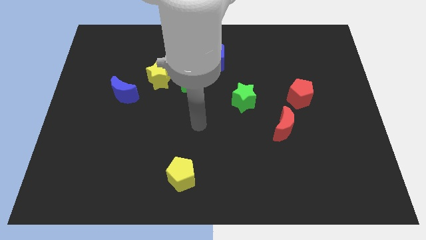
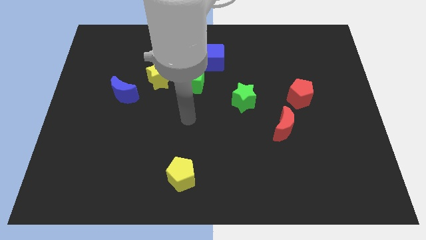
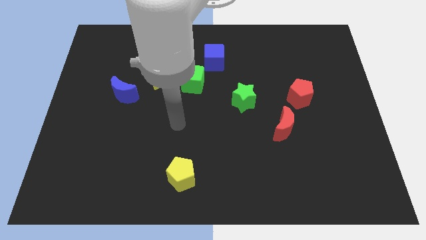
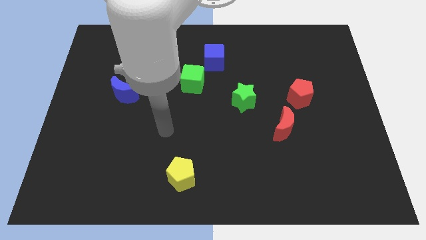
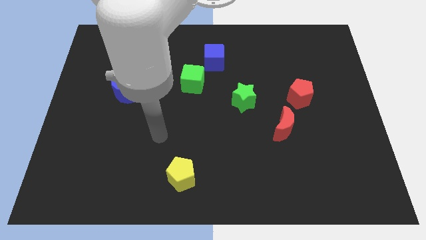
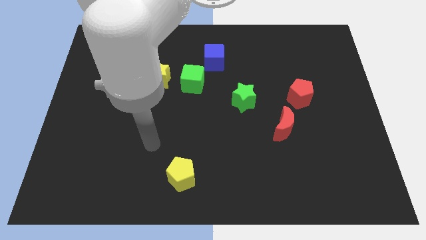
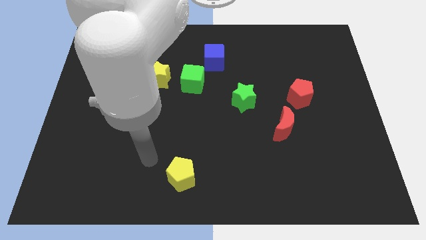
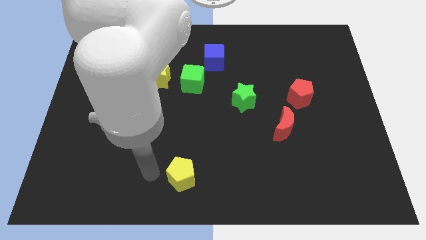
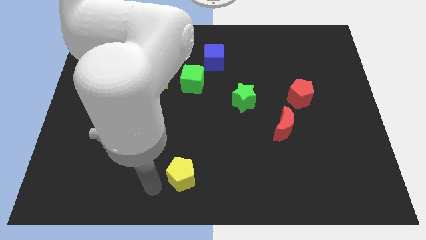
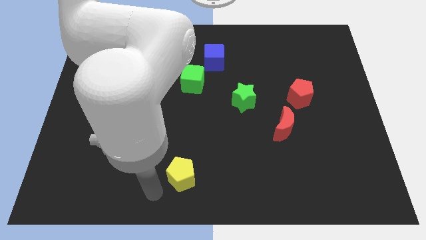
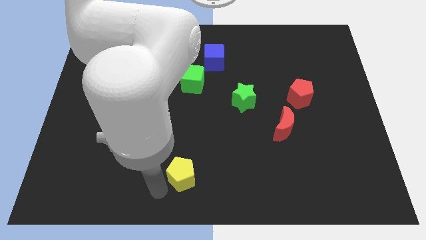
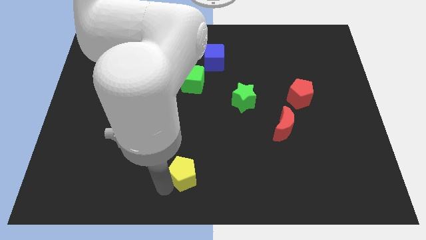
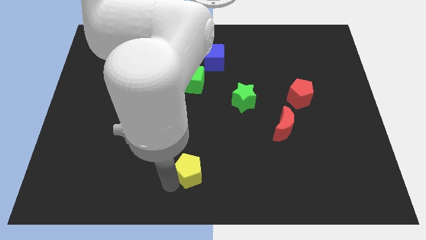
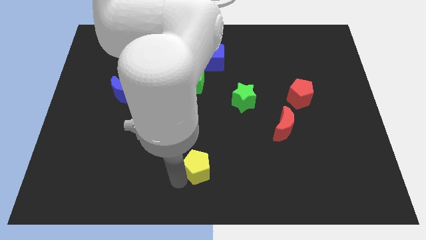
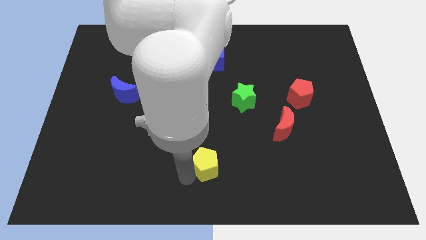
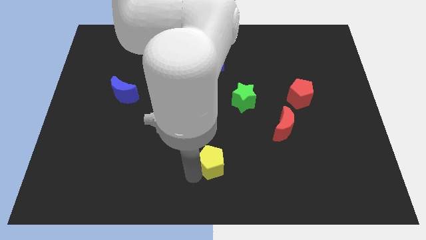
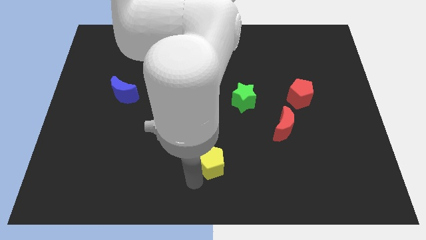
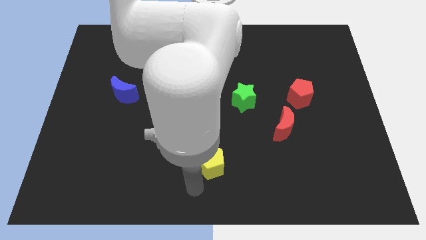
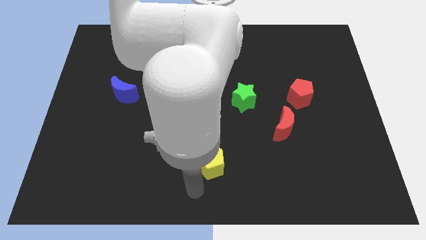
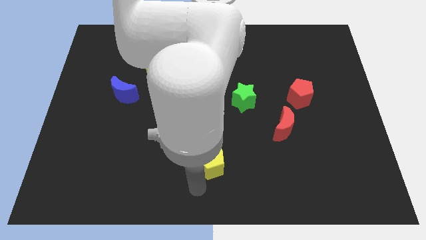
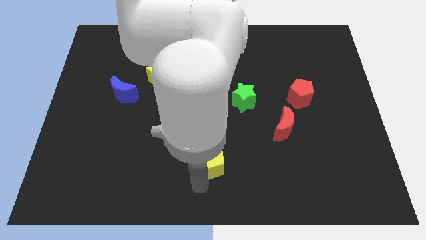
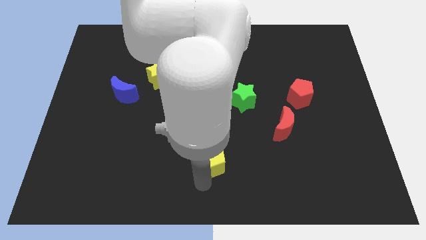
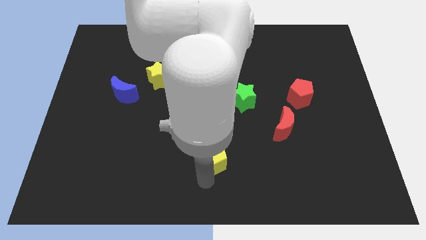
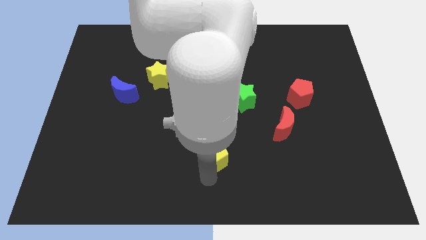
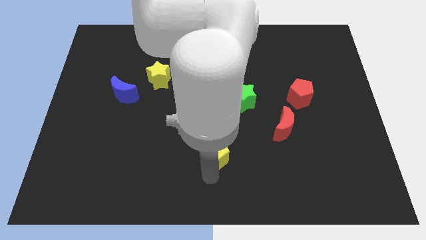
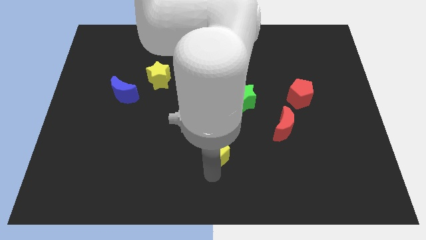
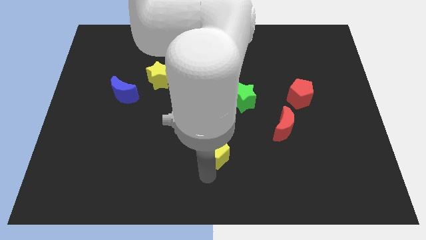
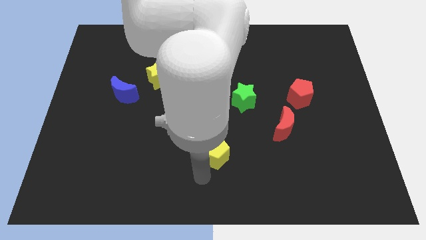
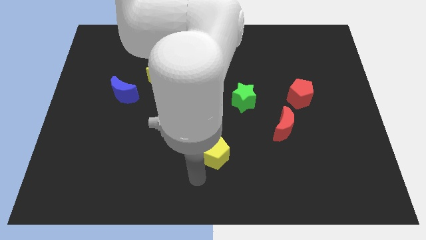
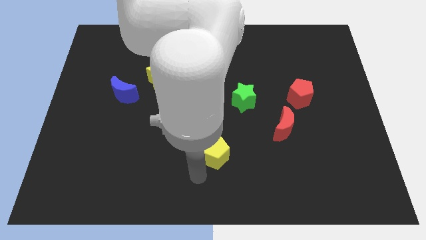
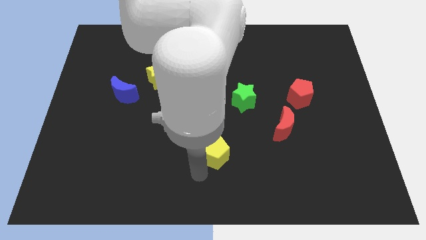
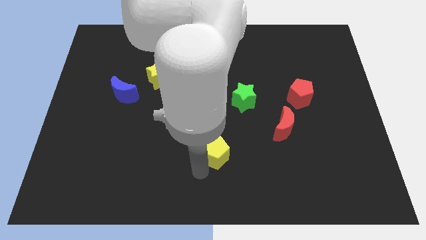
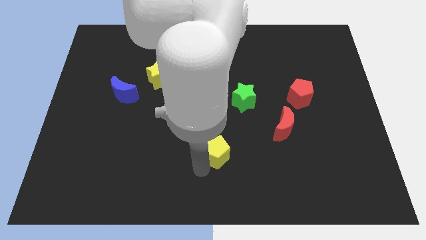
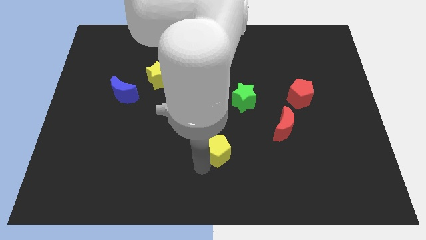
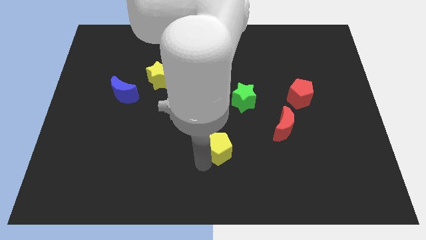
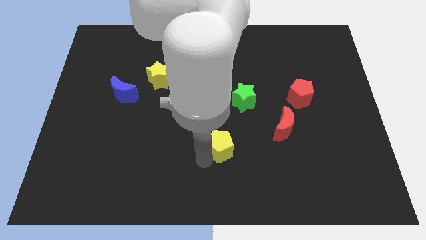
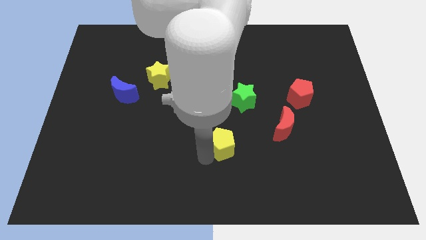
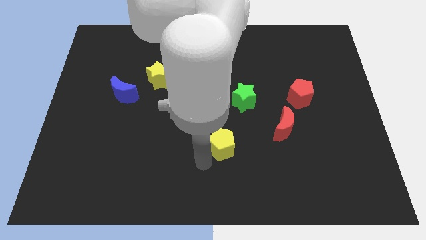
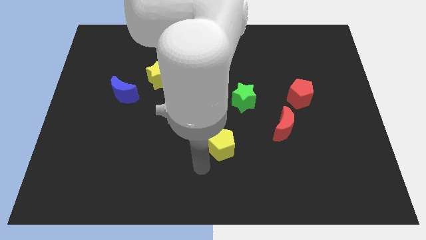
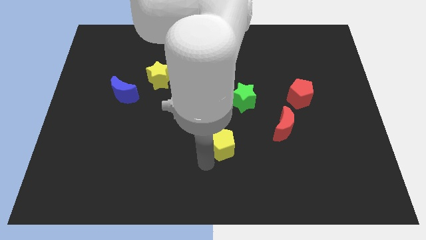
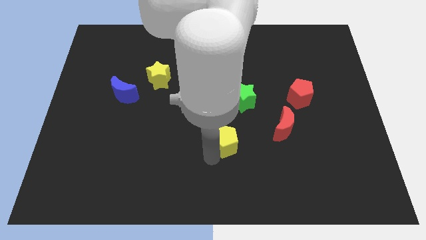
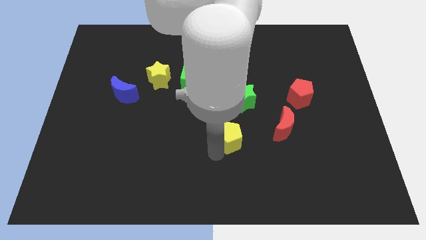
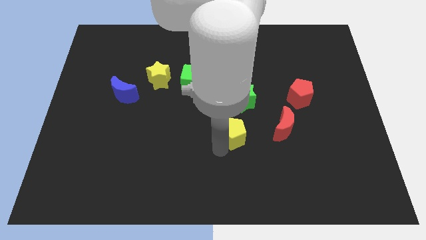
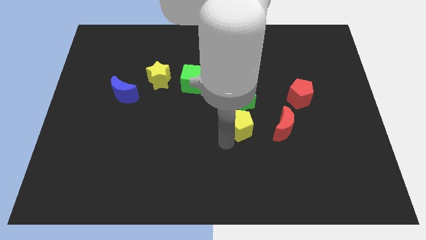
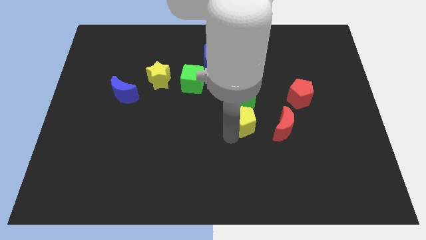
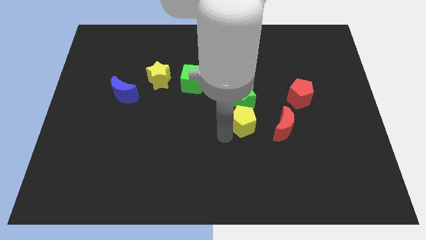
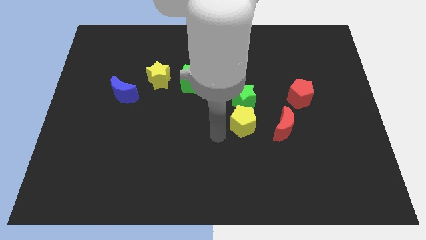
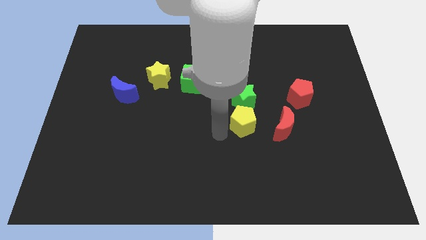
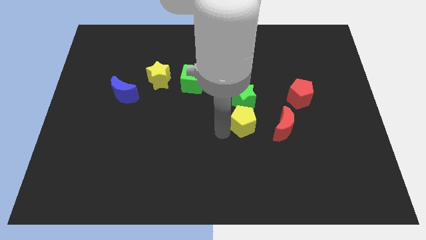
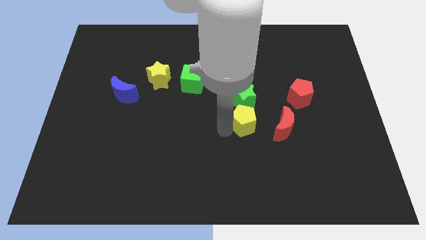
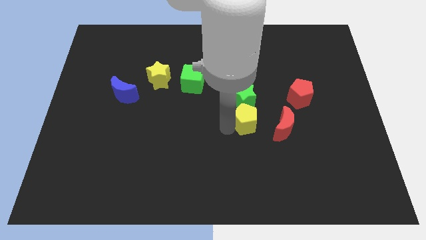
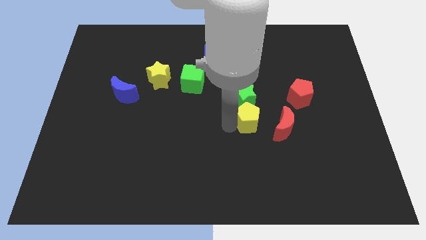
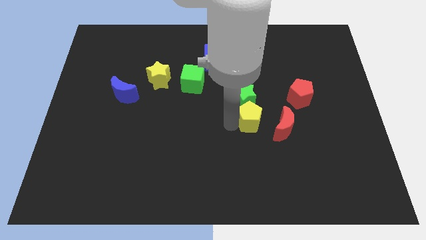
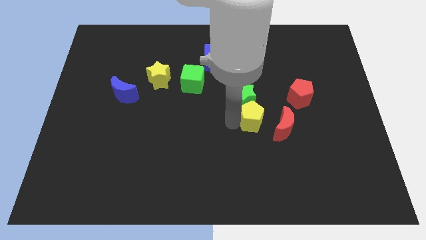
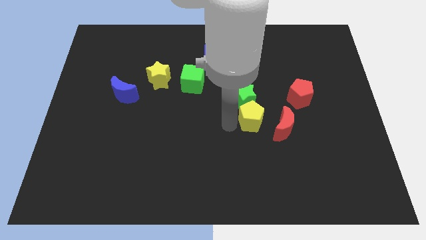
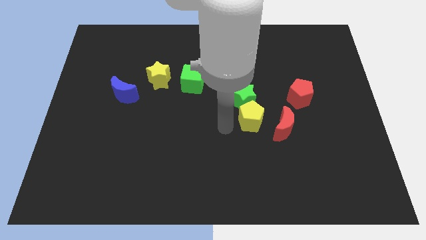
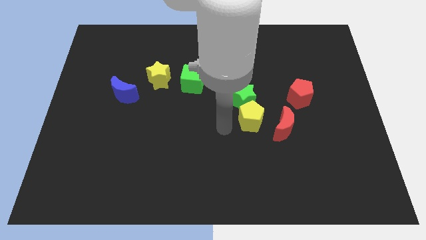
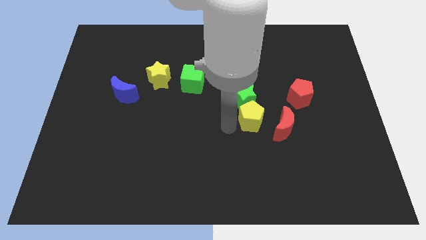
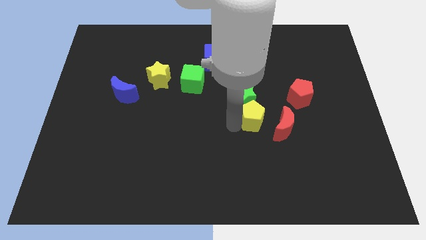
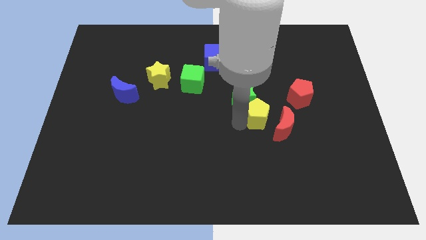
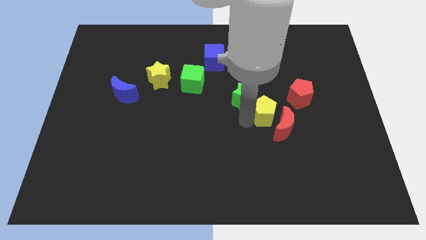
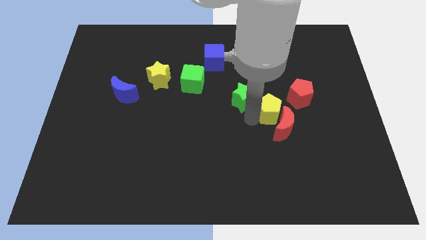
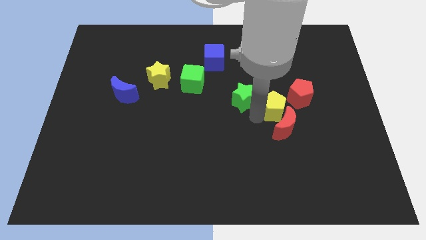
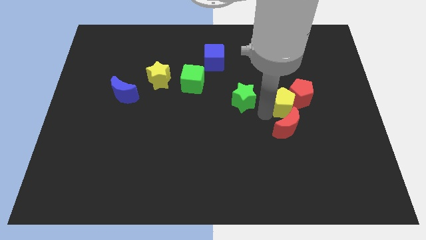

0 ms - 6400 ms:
slide the yellow pentagon close to the red pentagon

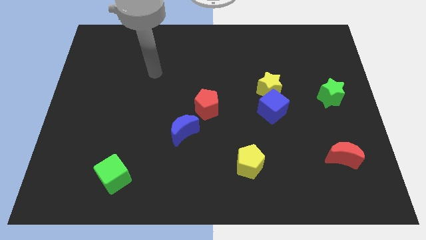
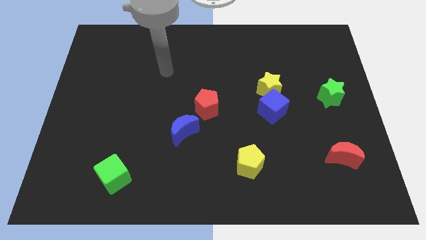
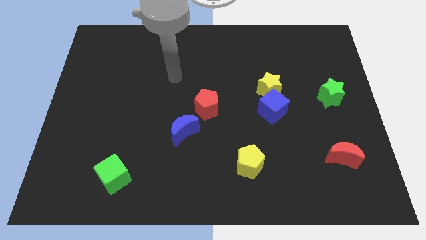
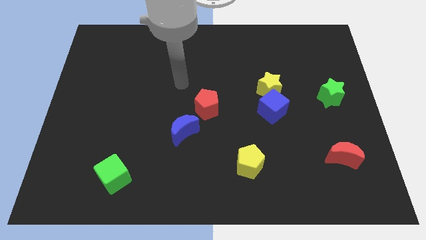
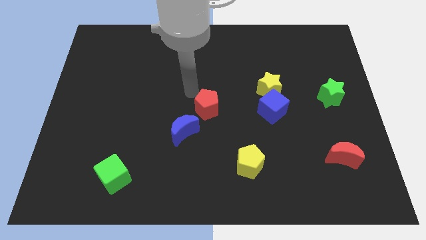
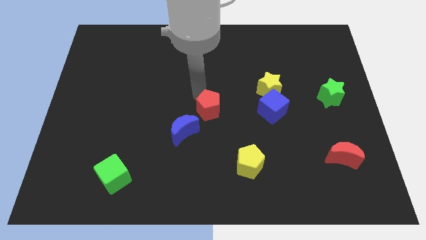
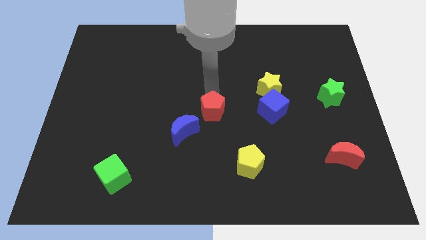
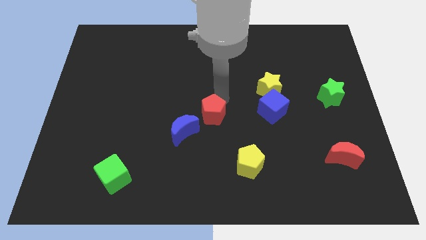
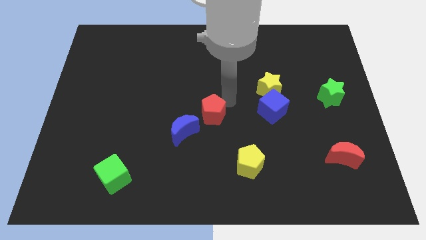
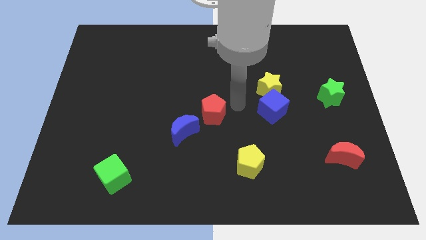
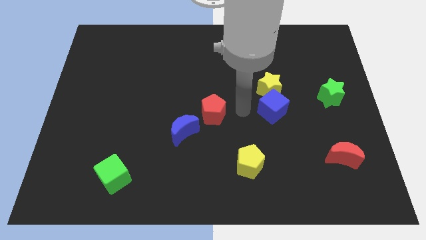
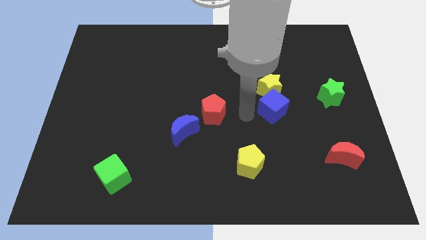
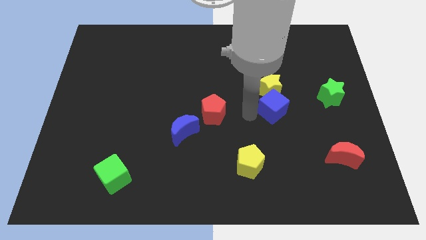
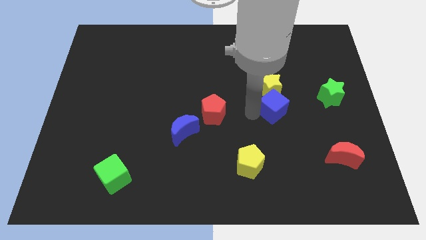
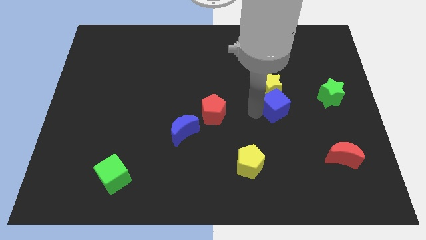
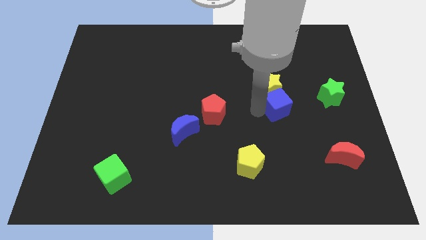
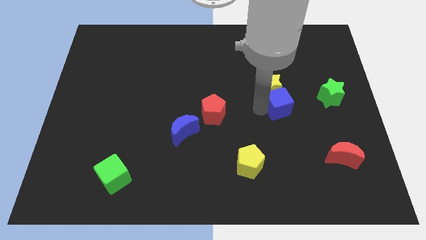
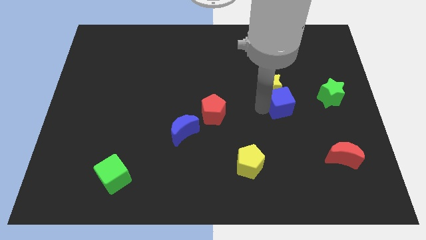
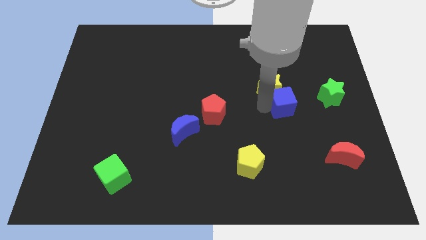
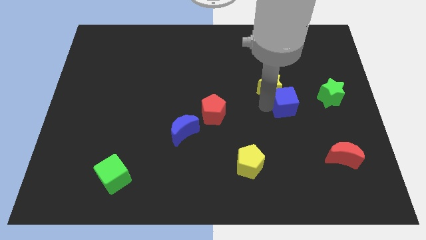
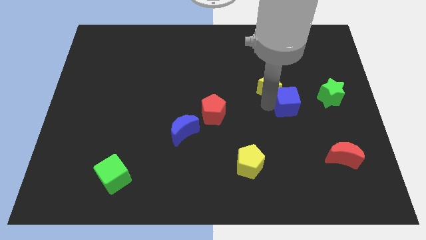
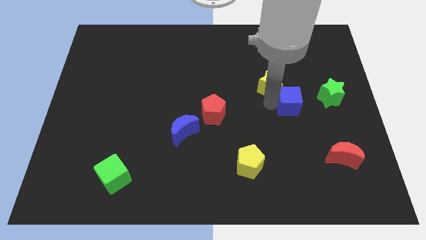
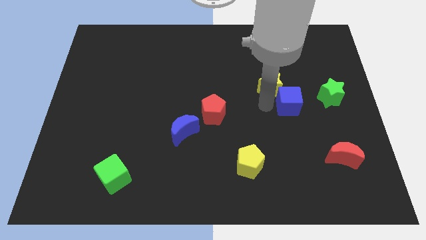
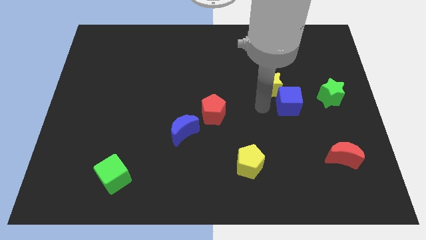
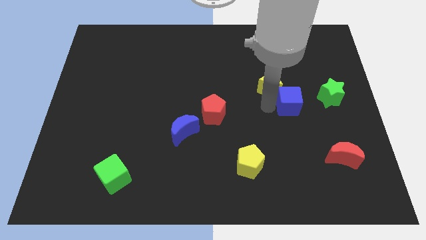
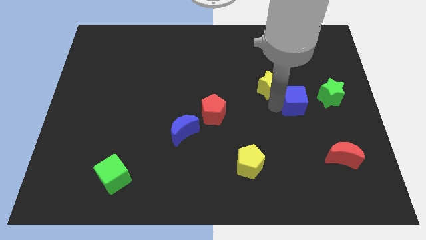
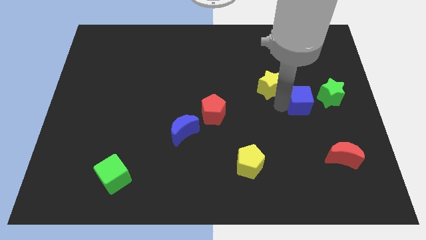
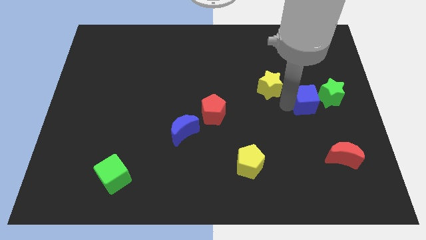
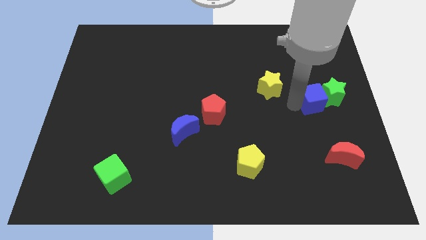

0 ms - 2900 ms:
move the blue cube to the green star
